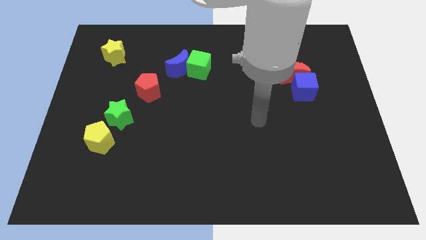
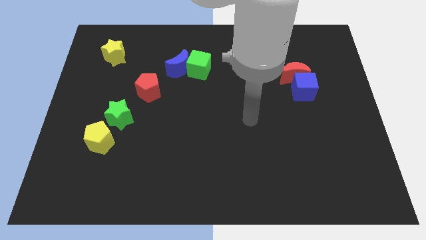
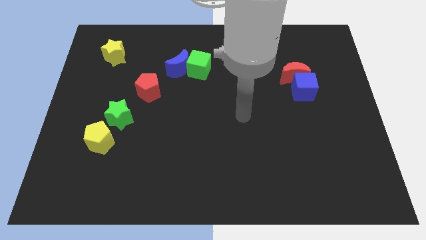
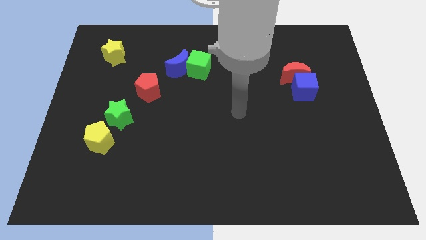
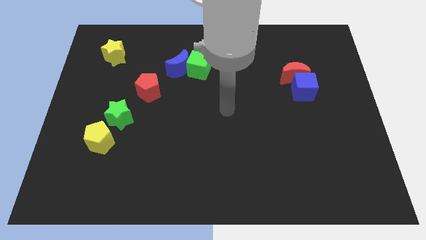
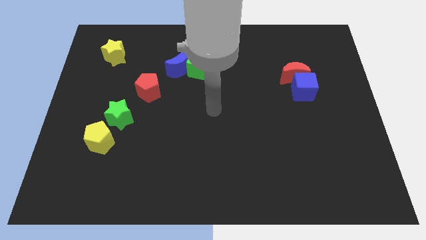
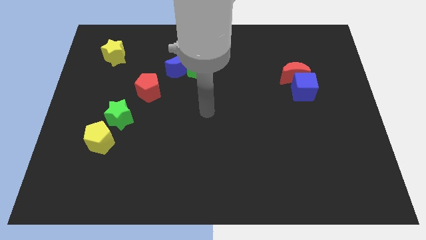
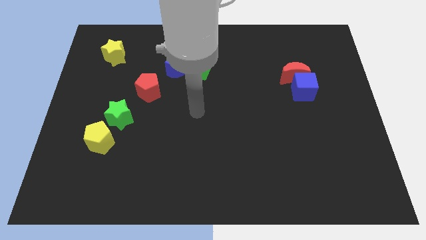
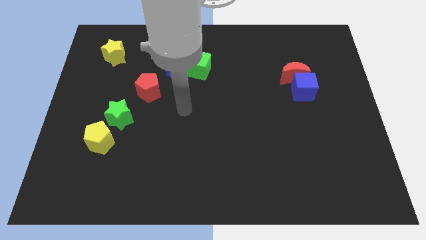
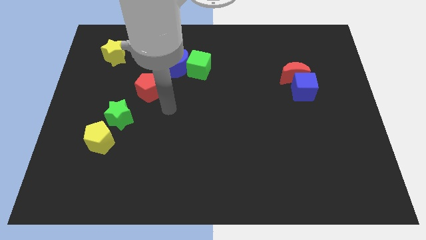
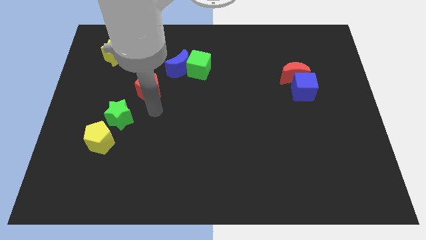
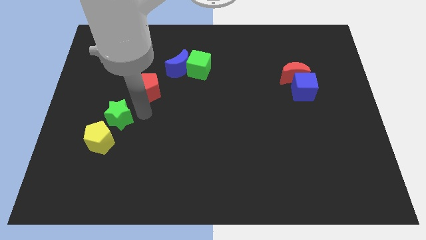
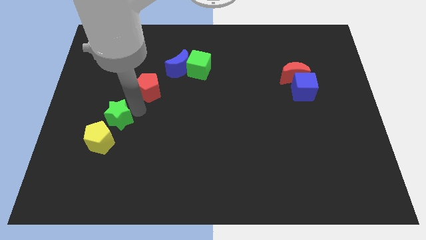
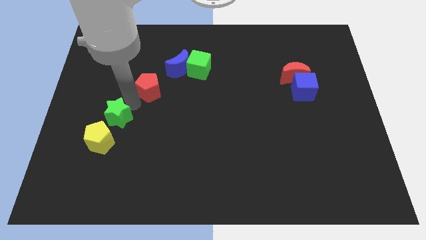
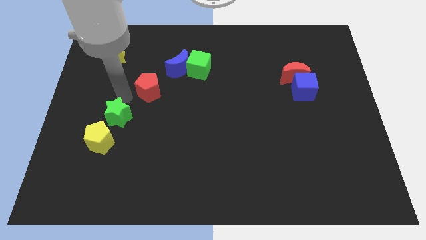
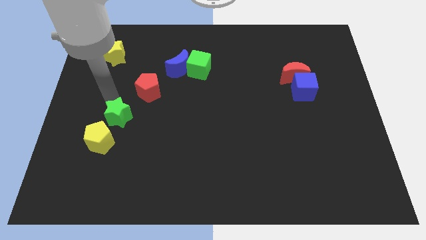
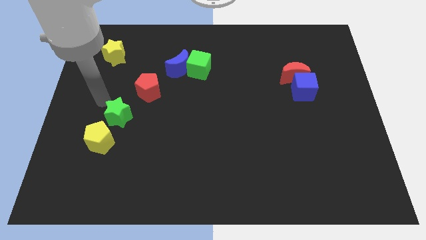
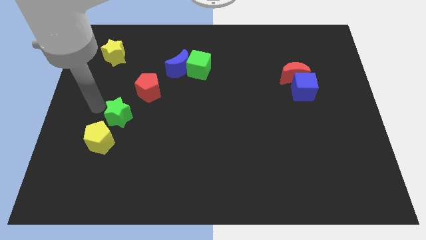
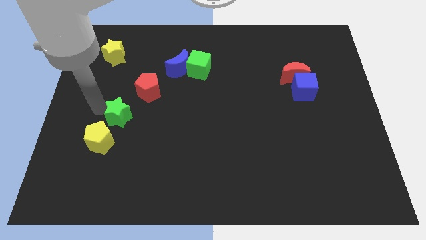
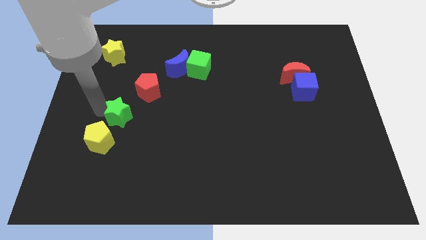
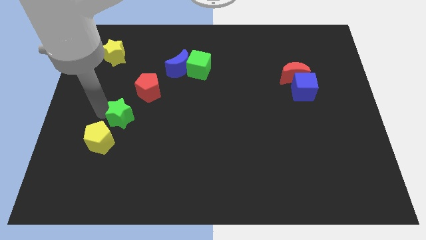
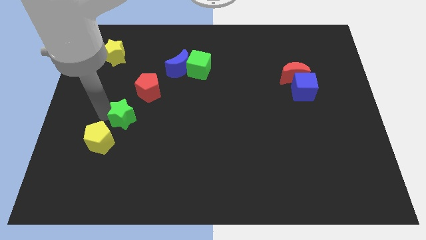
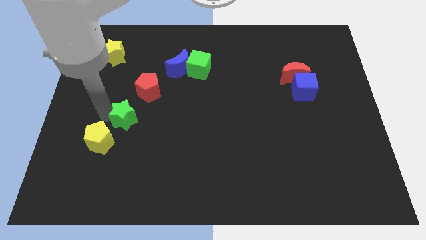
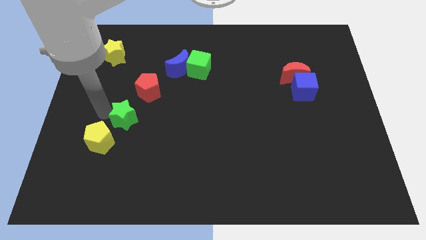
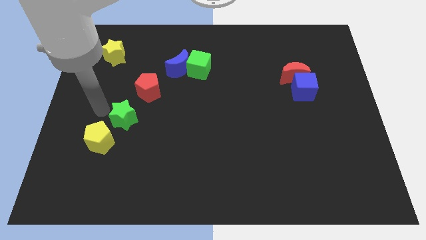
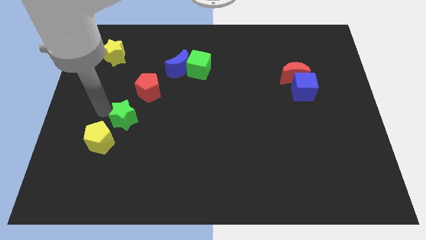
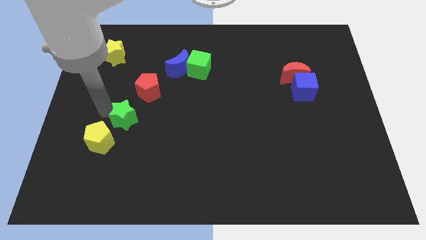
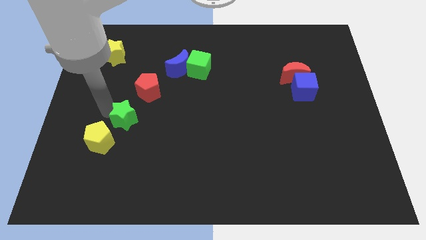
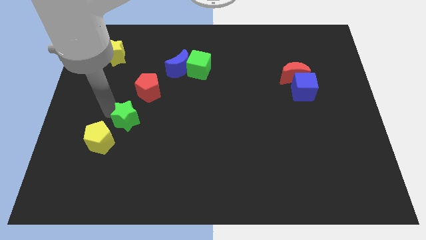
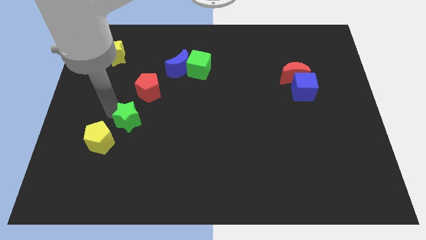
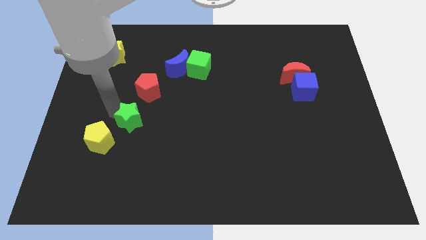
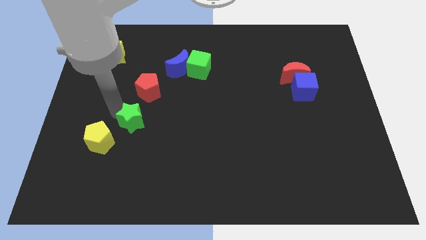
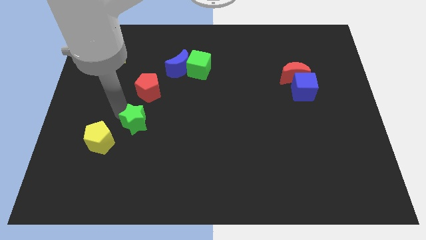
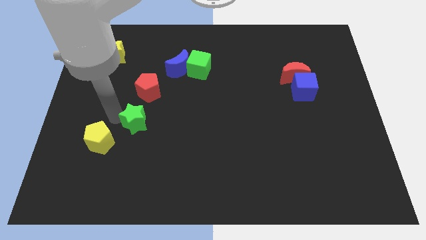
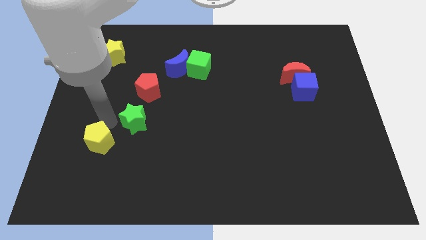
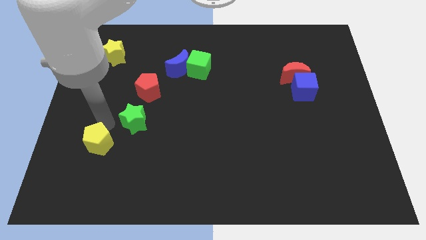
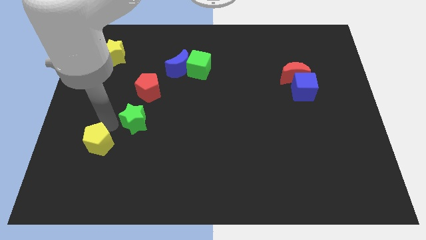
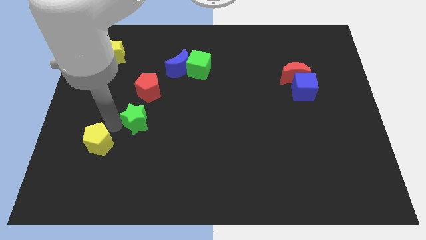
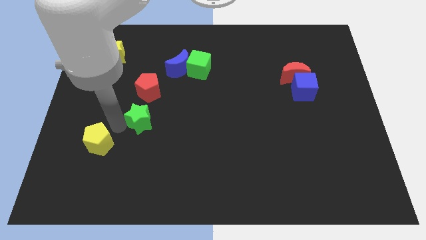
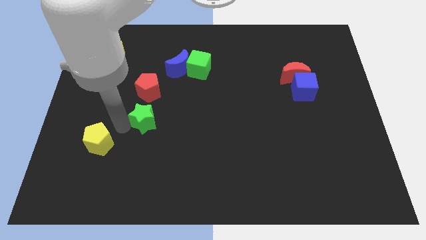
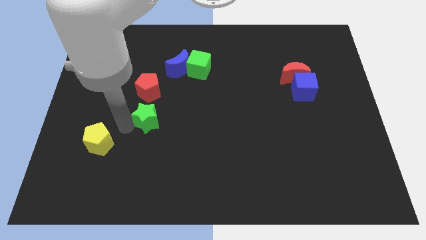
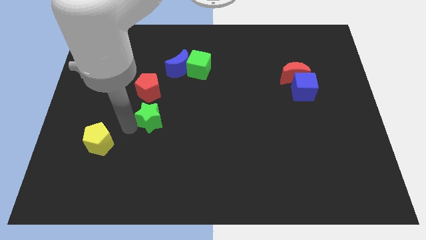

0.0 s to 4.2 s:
move the green star right a little bit

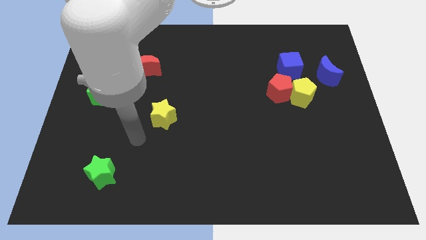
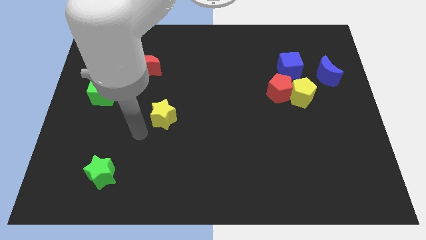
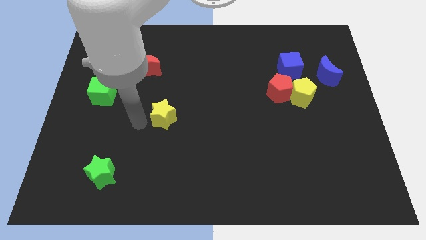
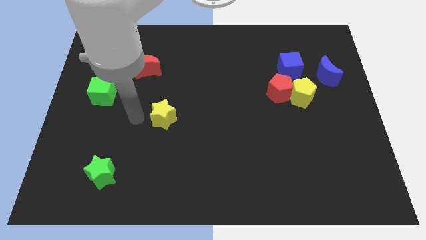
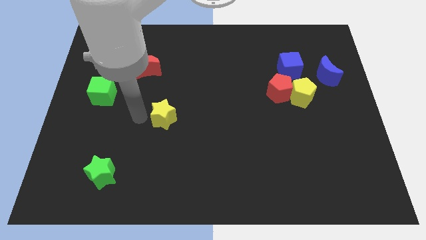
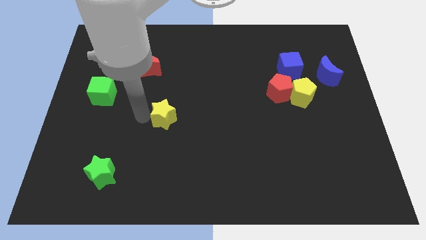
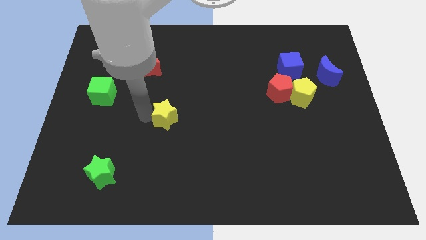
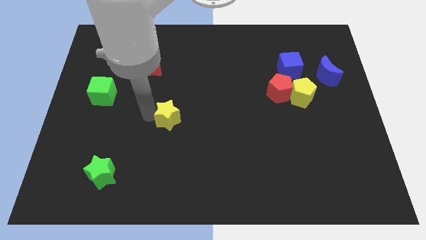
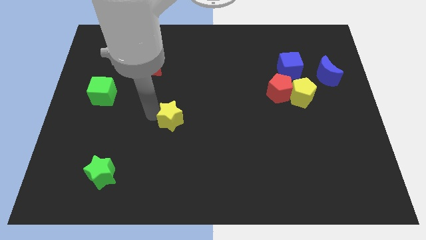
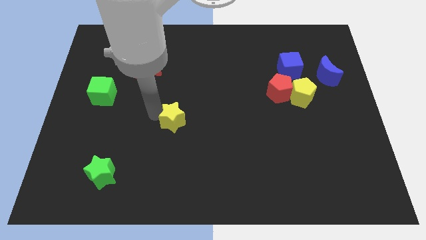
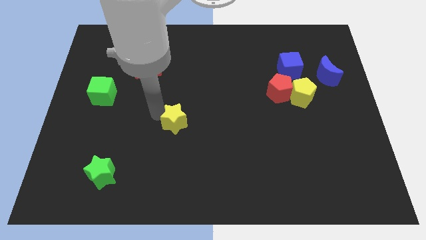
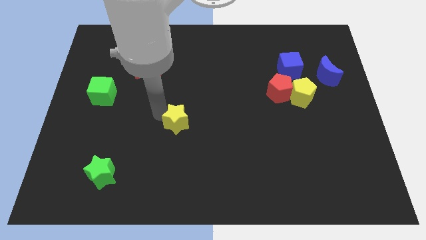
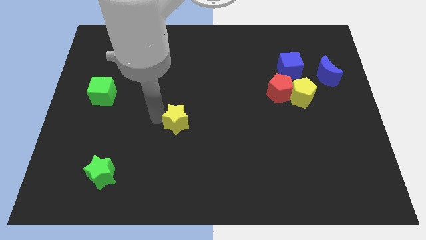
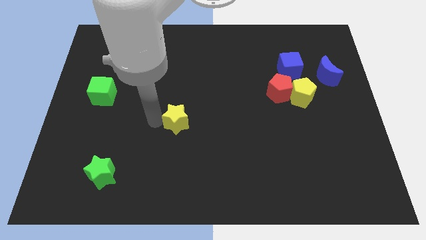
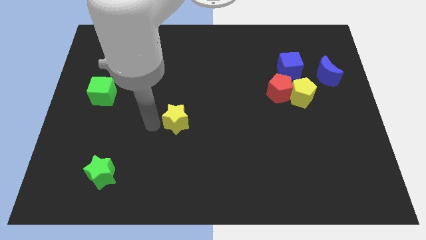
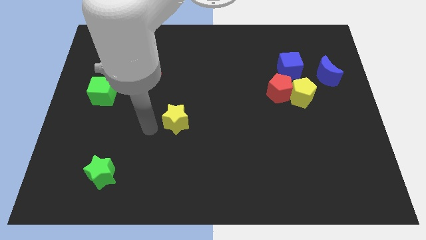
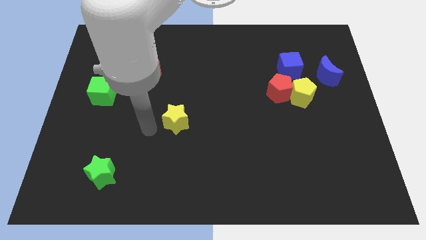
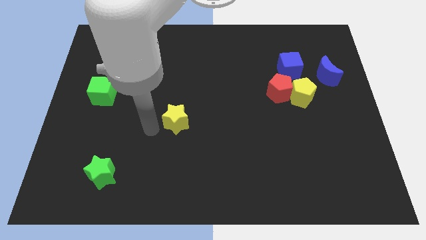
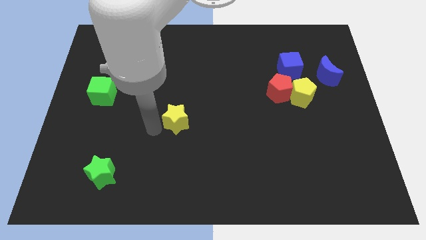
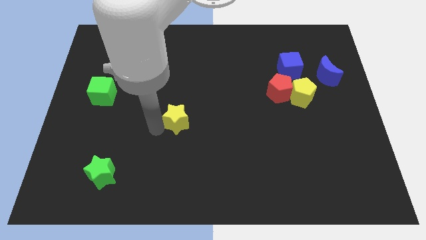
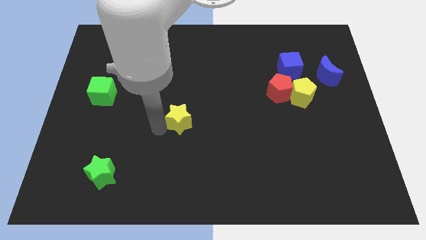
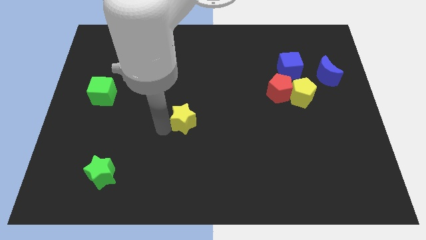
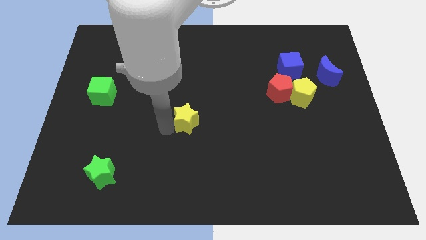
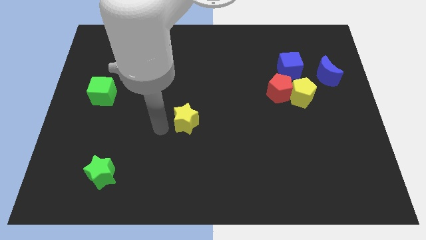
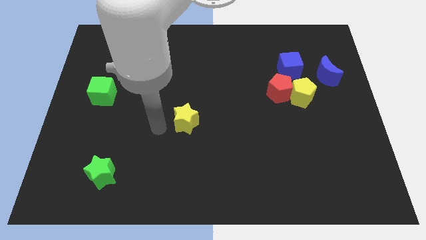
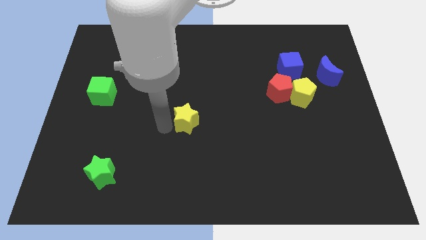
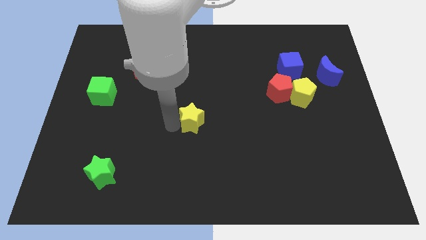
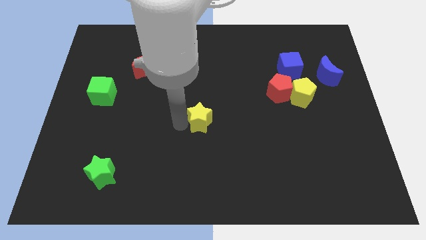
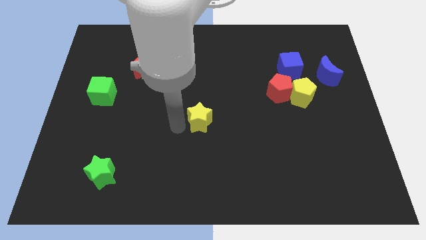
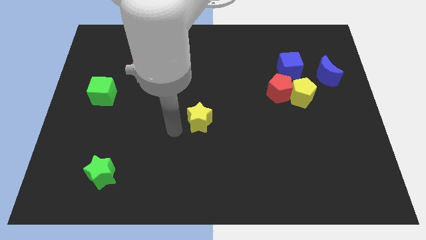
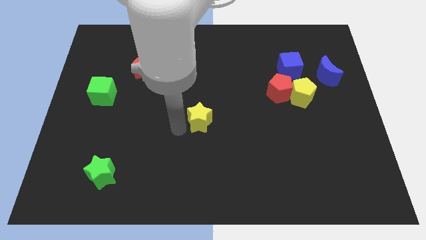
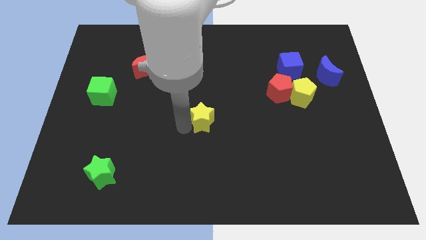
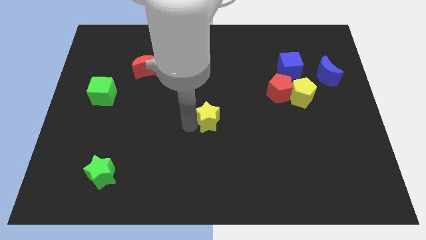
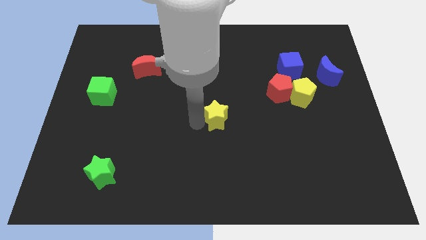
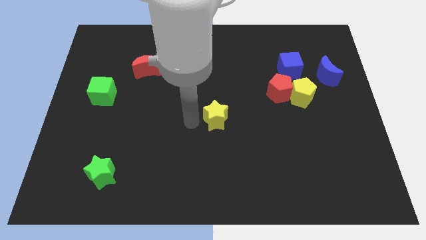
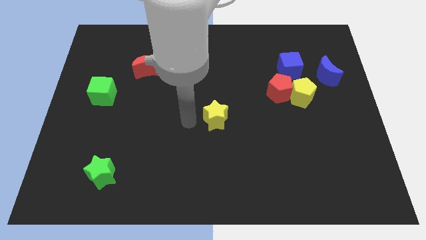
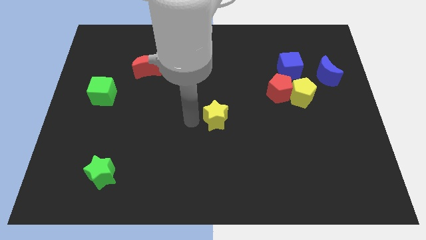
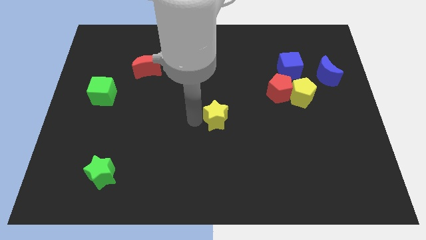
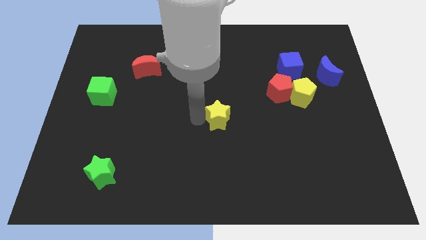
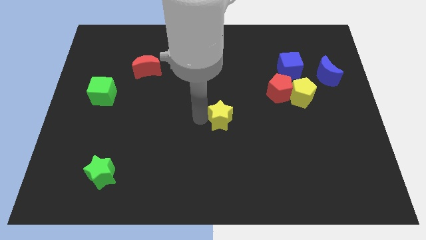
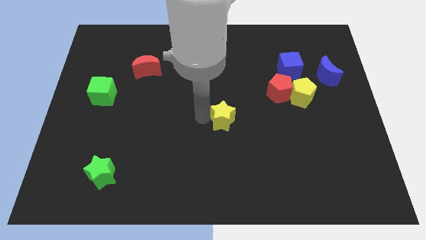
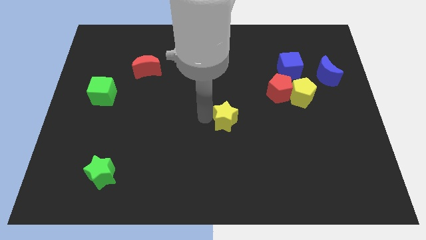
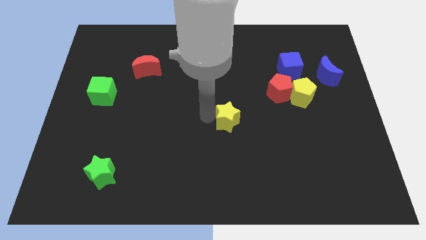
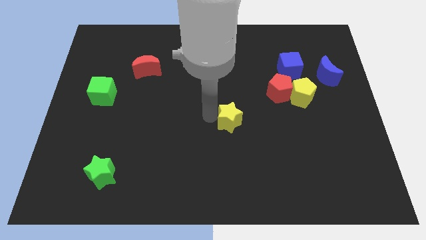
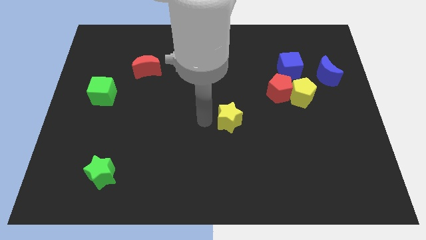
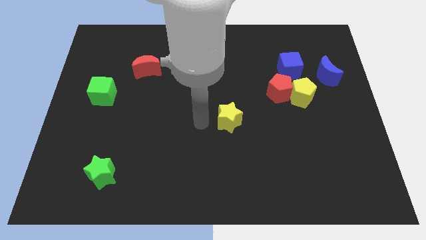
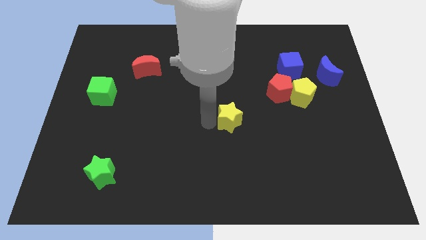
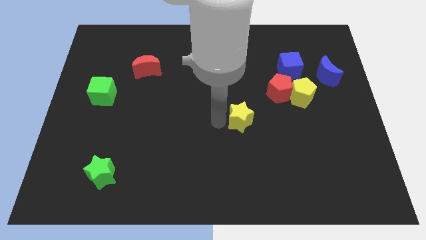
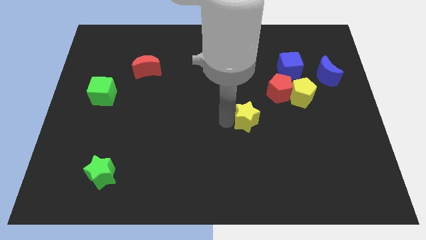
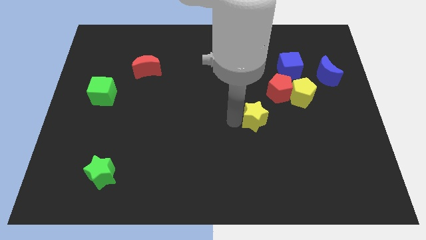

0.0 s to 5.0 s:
push the yellow star to the right
